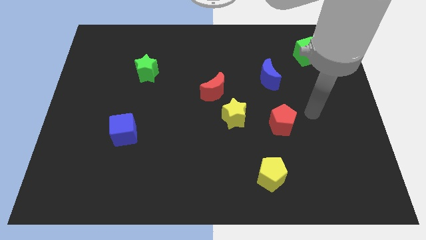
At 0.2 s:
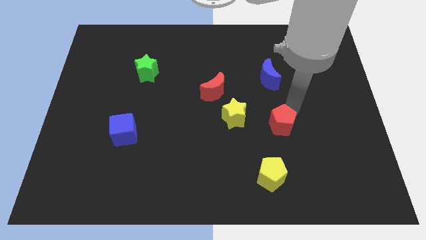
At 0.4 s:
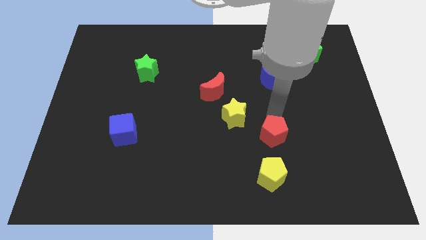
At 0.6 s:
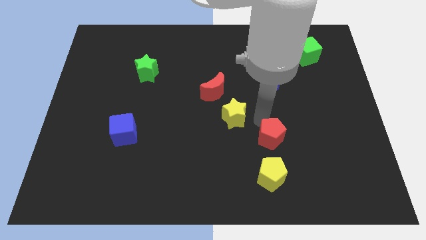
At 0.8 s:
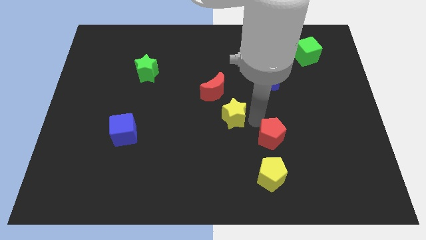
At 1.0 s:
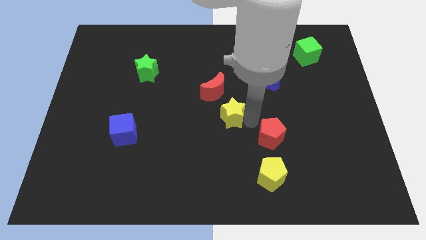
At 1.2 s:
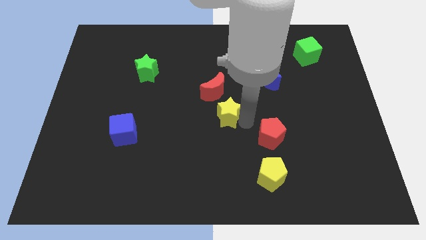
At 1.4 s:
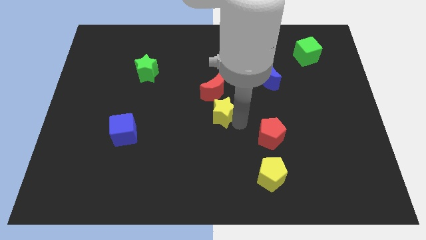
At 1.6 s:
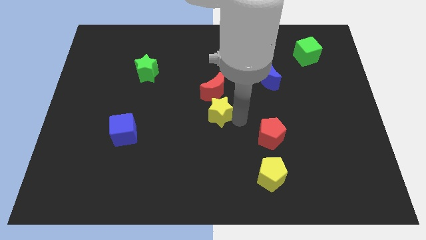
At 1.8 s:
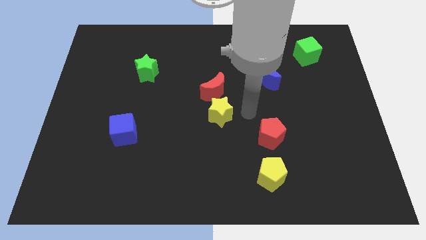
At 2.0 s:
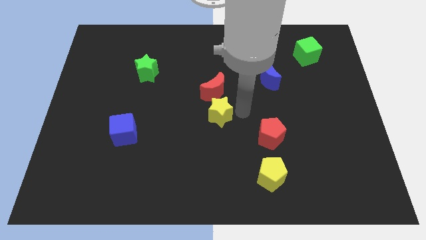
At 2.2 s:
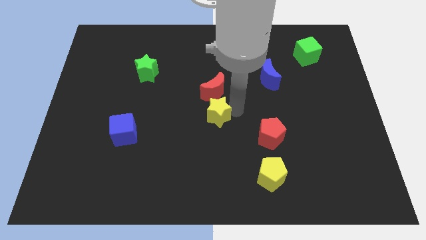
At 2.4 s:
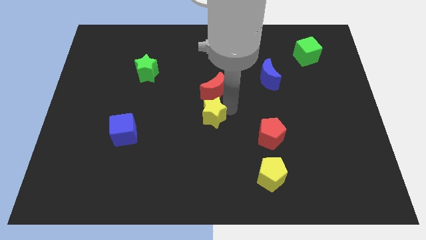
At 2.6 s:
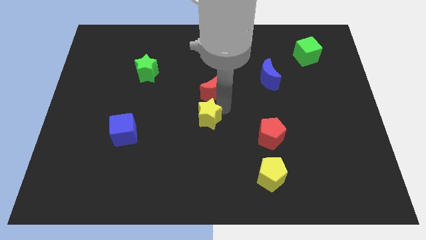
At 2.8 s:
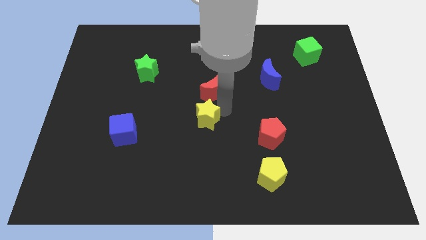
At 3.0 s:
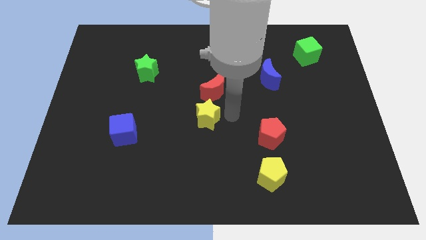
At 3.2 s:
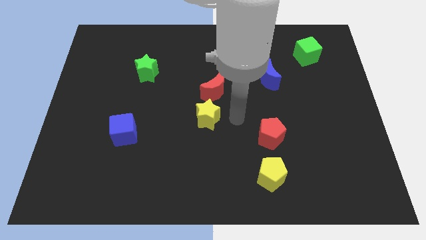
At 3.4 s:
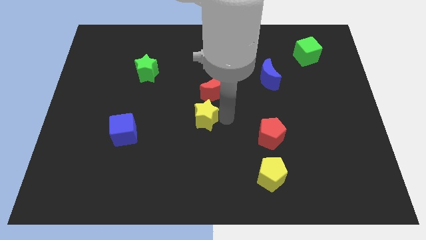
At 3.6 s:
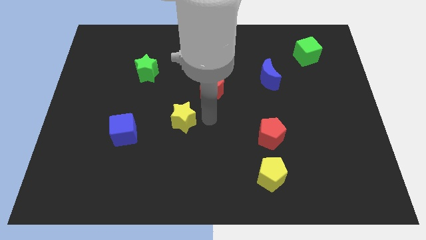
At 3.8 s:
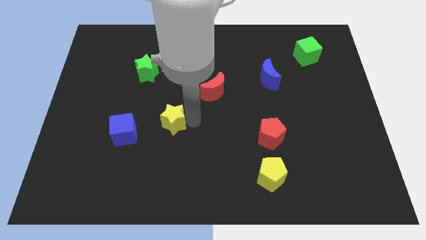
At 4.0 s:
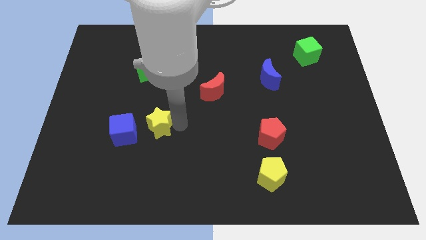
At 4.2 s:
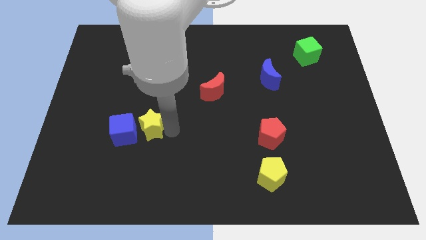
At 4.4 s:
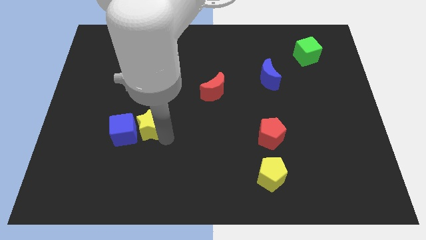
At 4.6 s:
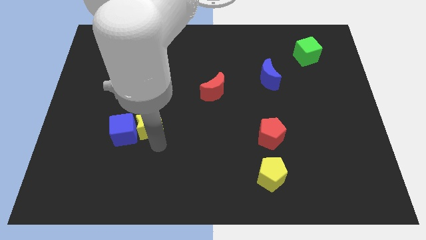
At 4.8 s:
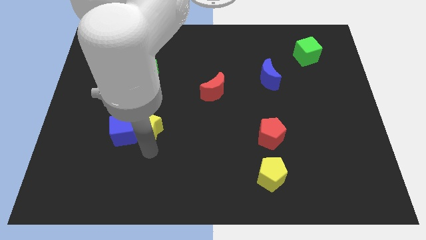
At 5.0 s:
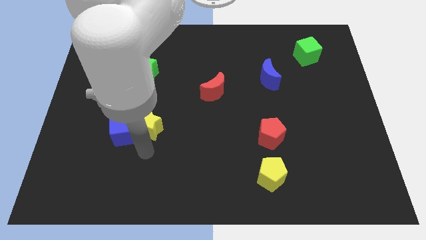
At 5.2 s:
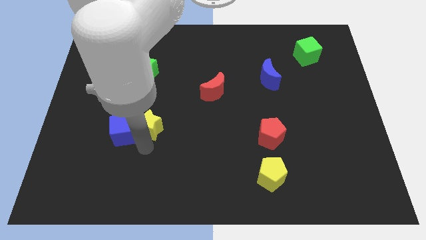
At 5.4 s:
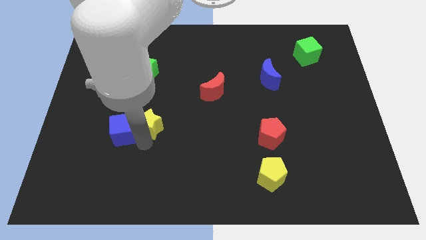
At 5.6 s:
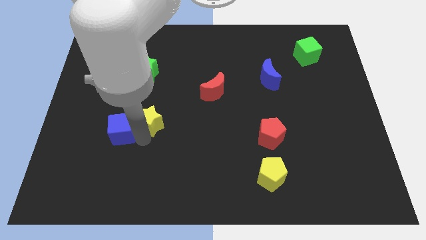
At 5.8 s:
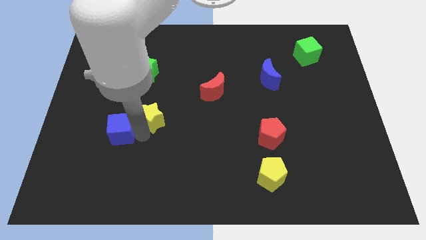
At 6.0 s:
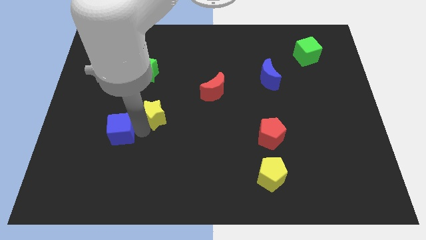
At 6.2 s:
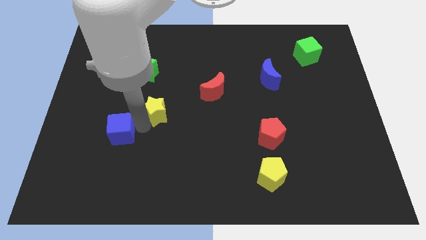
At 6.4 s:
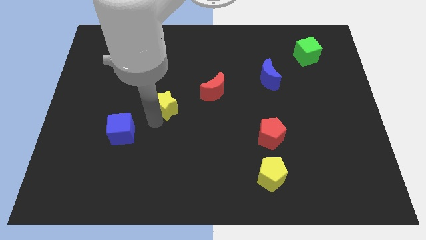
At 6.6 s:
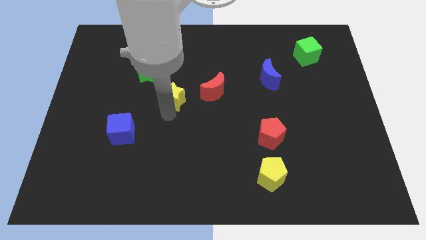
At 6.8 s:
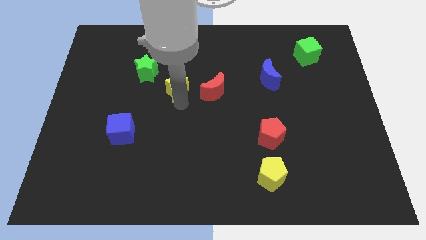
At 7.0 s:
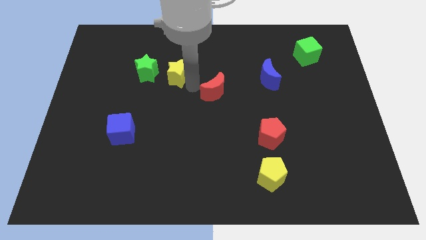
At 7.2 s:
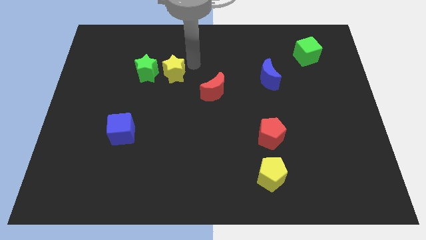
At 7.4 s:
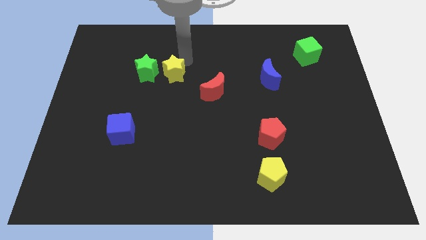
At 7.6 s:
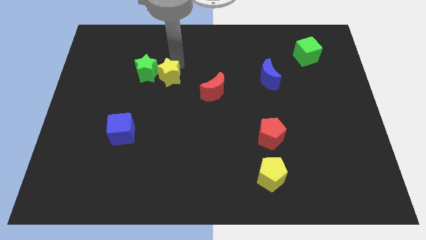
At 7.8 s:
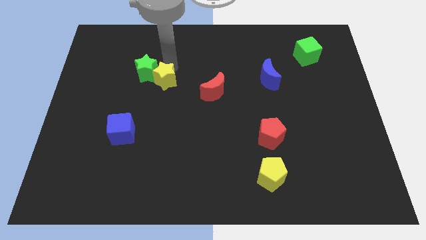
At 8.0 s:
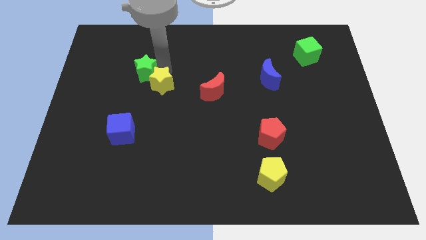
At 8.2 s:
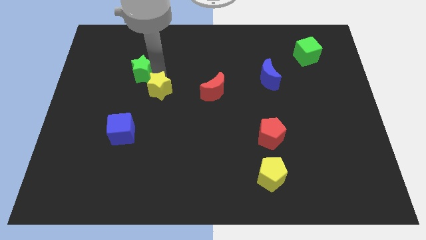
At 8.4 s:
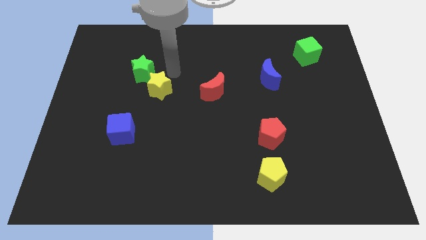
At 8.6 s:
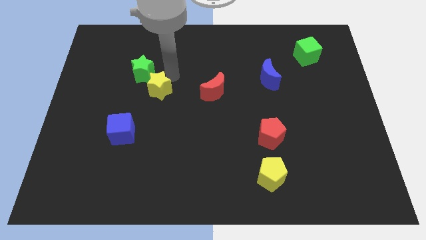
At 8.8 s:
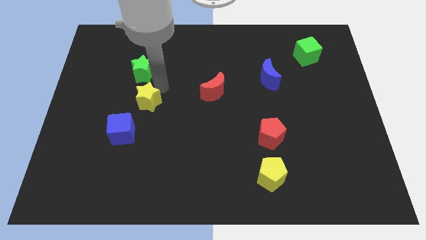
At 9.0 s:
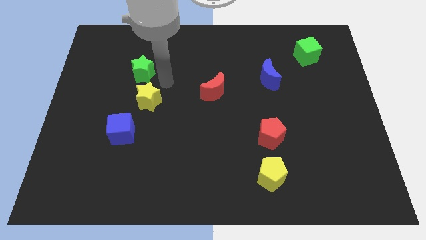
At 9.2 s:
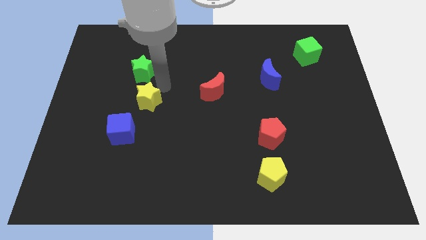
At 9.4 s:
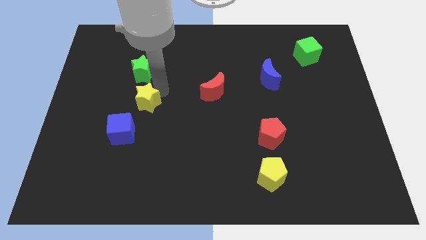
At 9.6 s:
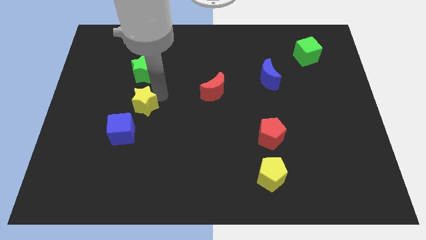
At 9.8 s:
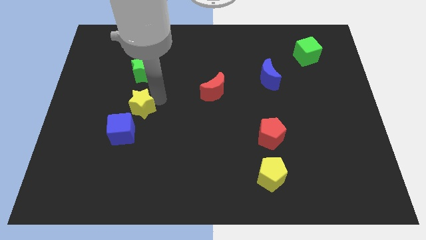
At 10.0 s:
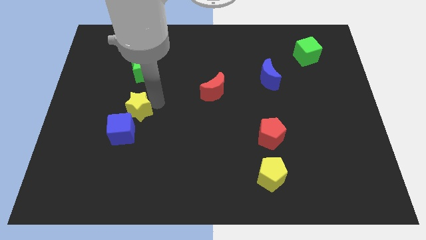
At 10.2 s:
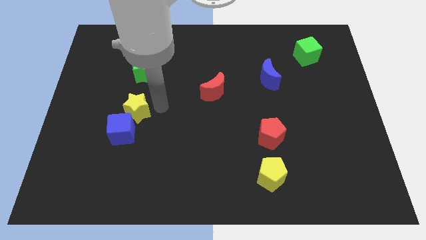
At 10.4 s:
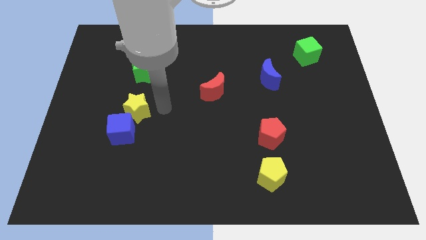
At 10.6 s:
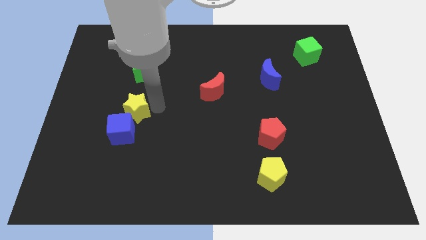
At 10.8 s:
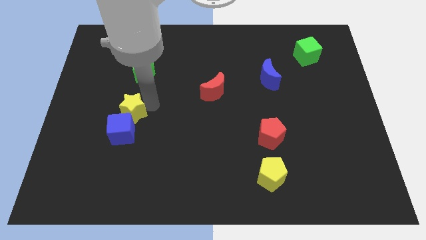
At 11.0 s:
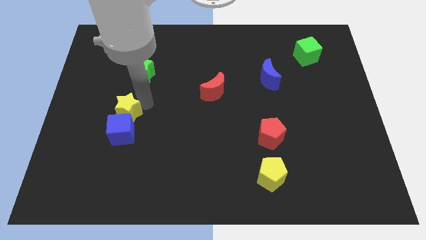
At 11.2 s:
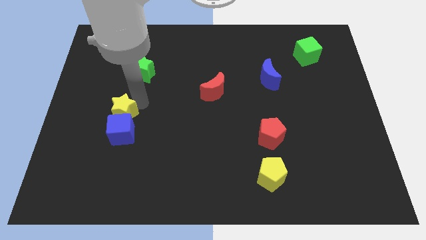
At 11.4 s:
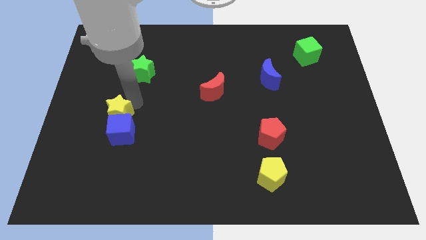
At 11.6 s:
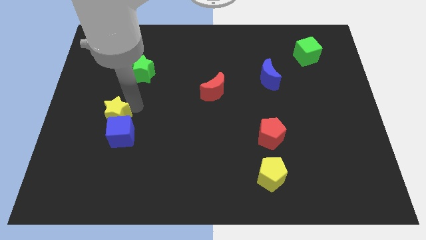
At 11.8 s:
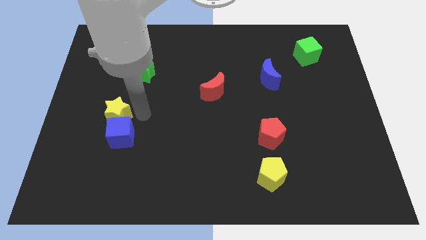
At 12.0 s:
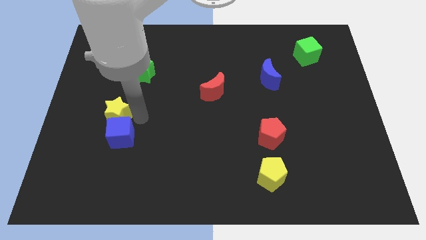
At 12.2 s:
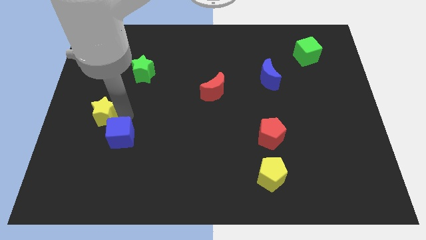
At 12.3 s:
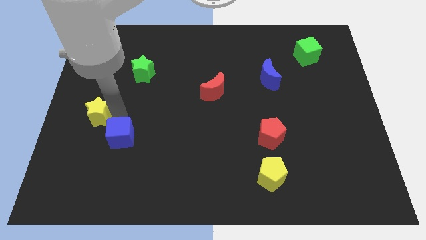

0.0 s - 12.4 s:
put the yellow star to the left side of the board
